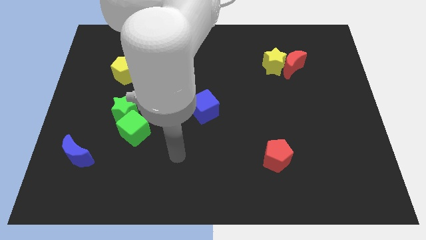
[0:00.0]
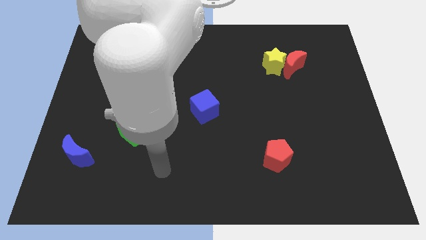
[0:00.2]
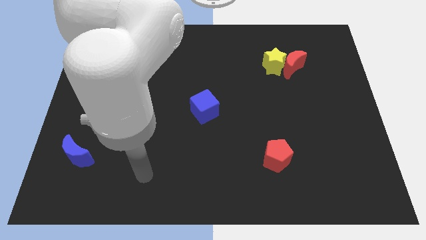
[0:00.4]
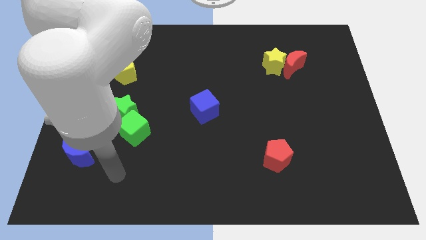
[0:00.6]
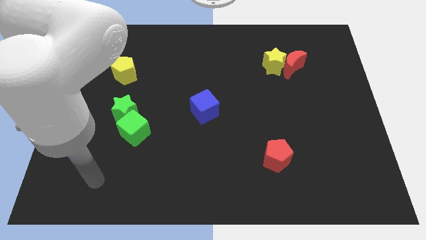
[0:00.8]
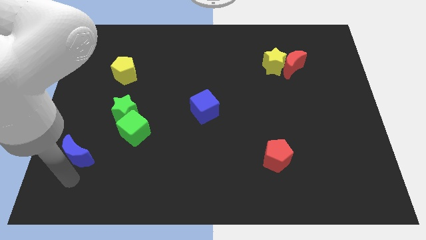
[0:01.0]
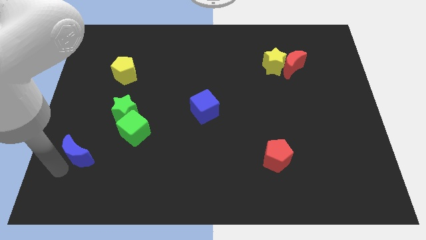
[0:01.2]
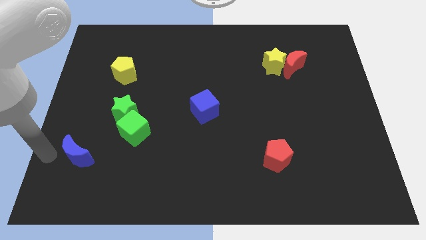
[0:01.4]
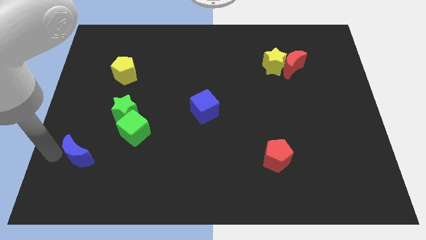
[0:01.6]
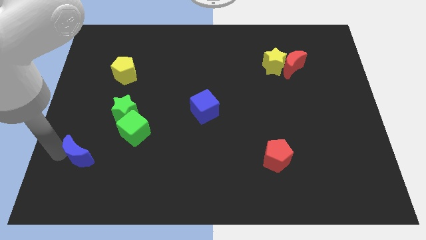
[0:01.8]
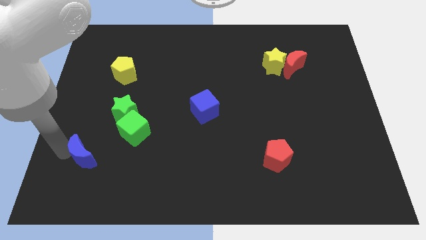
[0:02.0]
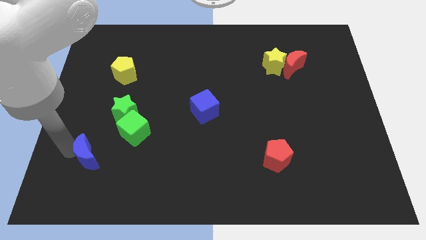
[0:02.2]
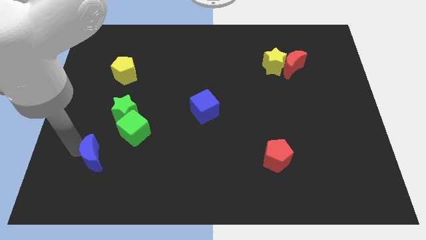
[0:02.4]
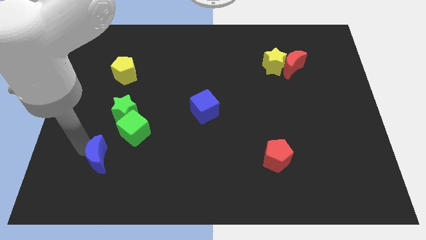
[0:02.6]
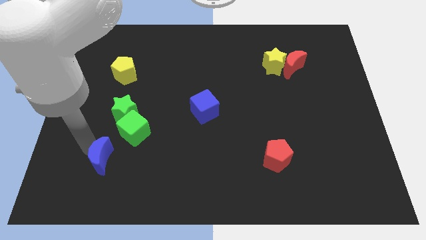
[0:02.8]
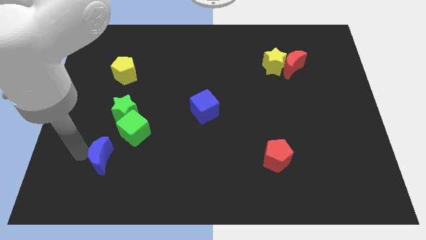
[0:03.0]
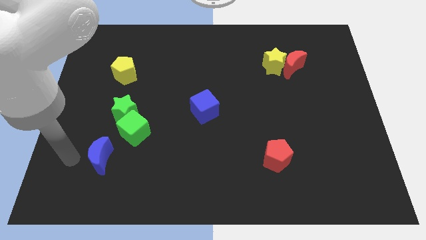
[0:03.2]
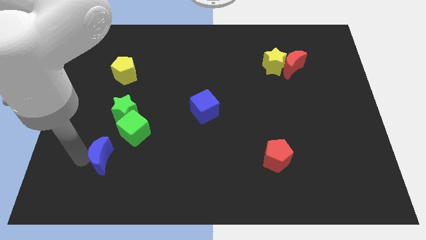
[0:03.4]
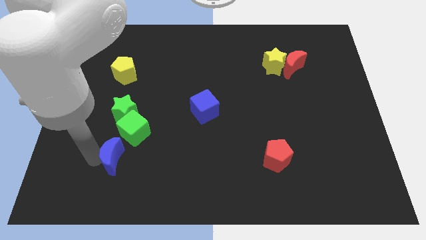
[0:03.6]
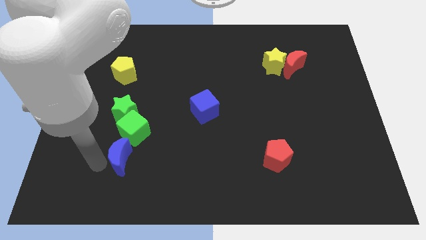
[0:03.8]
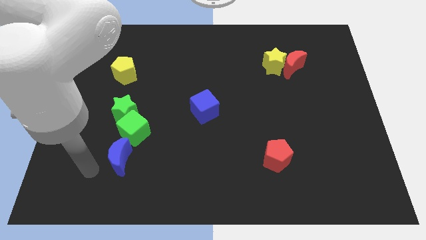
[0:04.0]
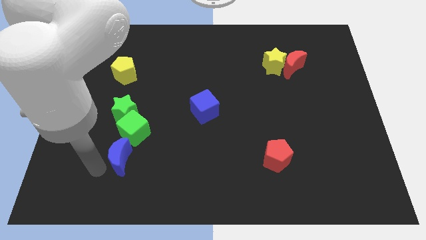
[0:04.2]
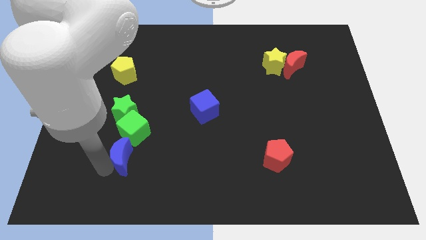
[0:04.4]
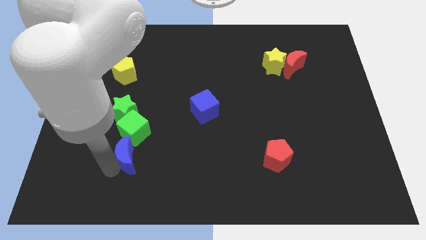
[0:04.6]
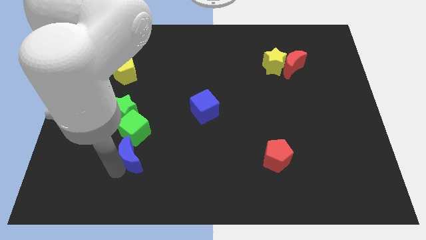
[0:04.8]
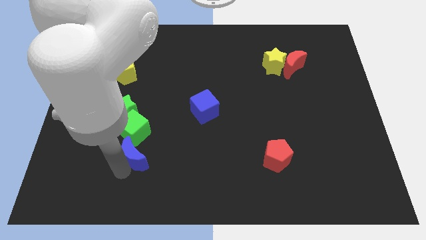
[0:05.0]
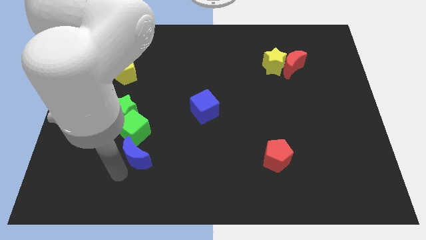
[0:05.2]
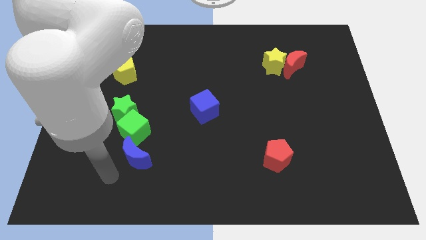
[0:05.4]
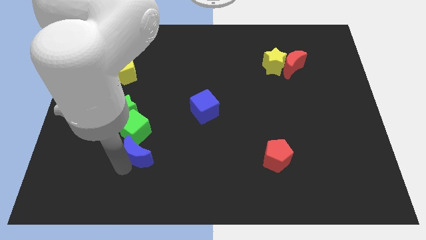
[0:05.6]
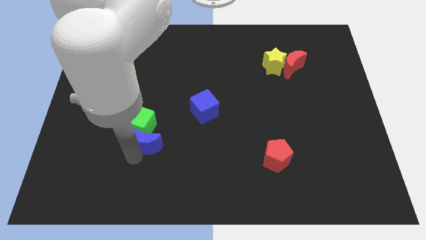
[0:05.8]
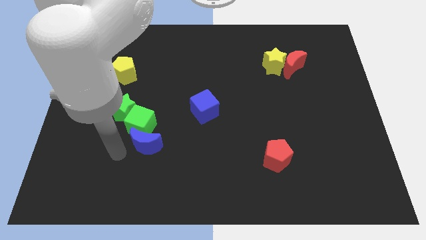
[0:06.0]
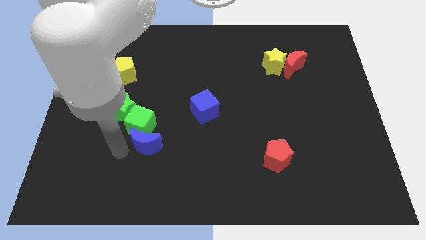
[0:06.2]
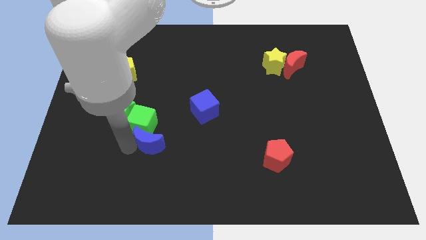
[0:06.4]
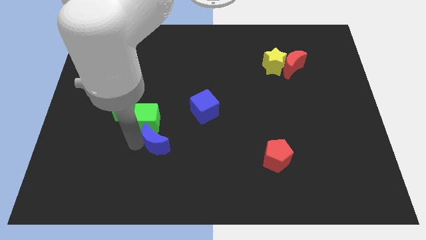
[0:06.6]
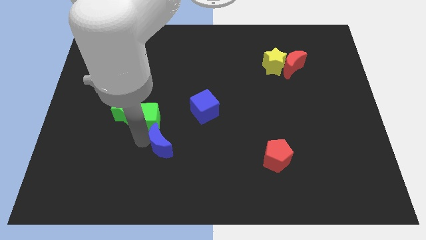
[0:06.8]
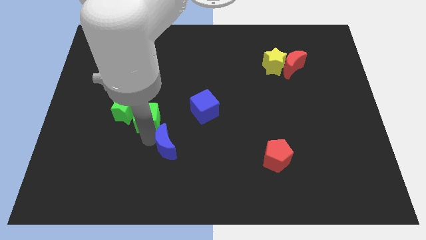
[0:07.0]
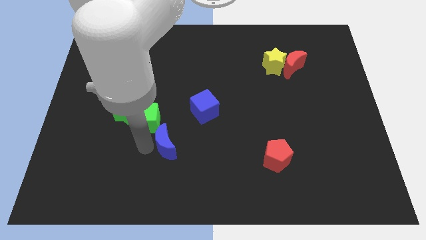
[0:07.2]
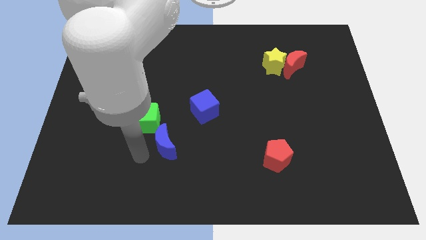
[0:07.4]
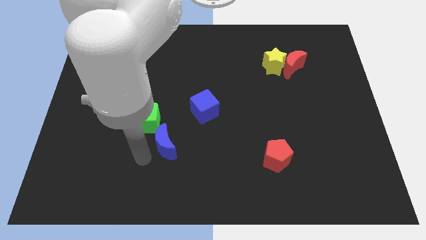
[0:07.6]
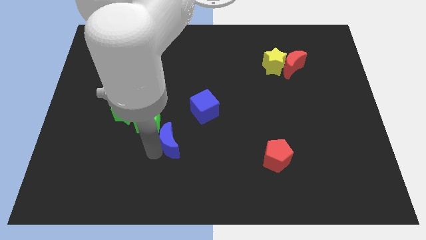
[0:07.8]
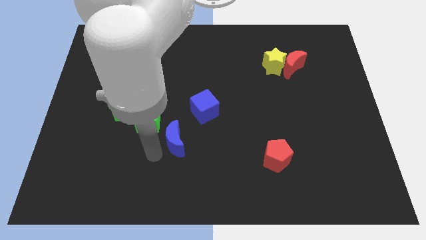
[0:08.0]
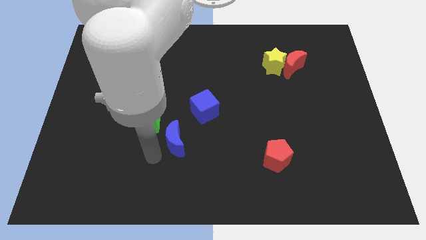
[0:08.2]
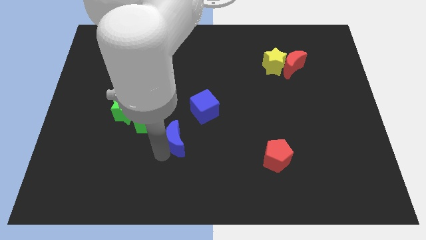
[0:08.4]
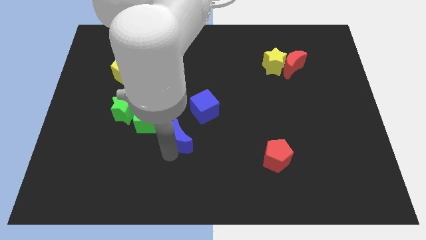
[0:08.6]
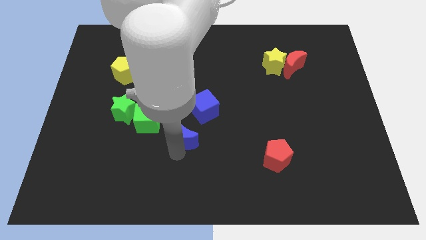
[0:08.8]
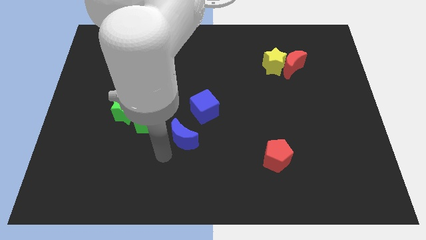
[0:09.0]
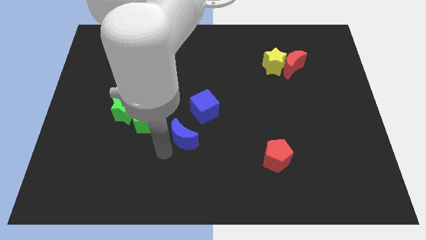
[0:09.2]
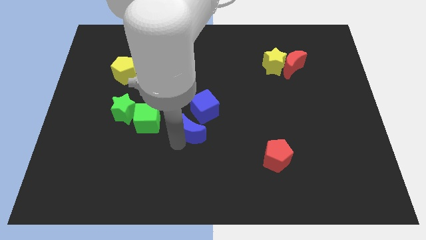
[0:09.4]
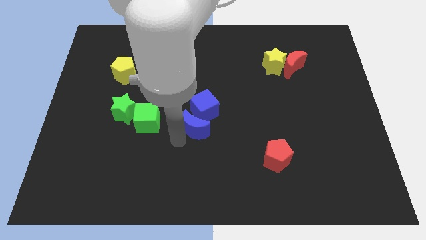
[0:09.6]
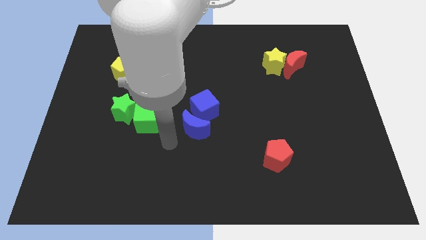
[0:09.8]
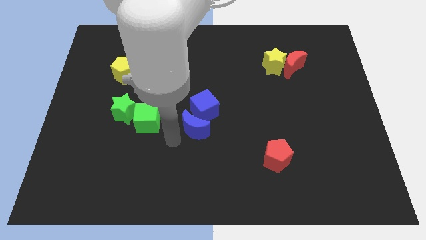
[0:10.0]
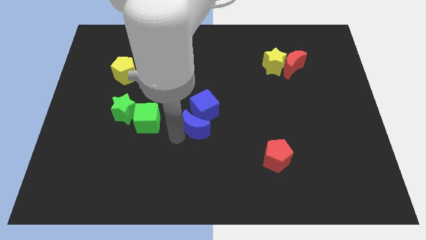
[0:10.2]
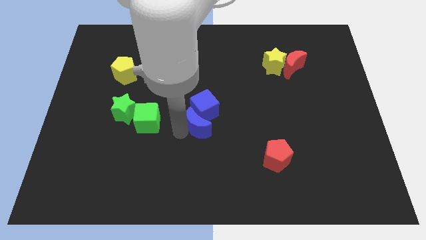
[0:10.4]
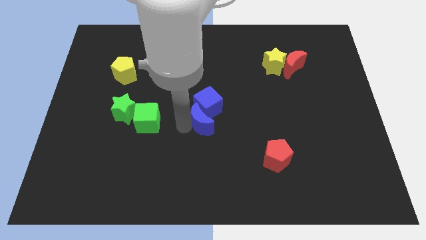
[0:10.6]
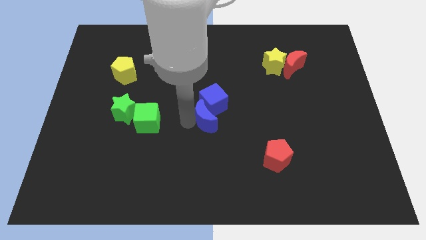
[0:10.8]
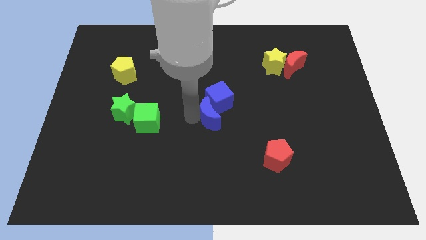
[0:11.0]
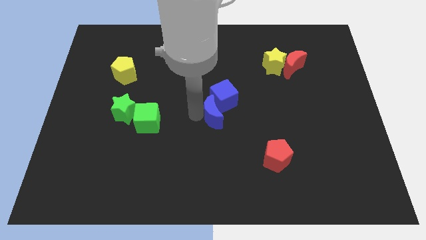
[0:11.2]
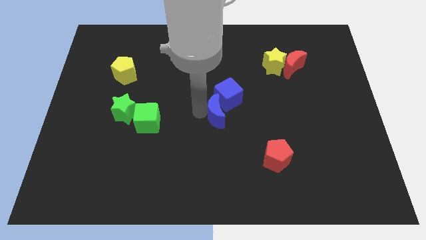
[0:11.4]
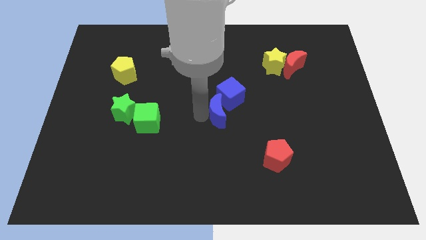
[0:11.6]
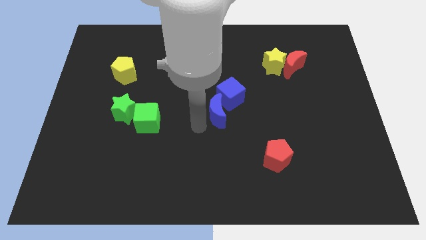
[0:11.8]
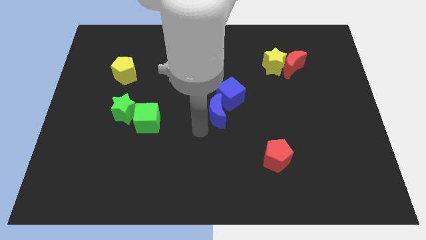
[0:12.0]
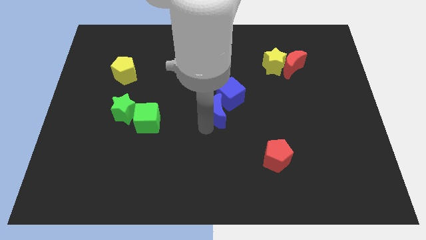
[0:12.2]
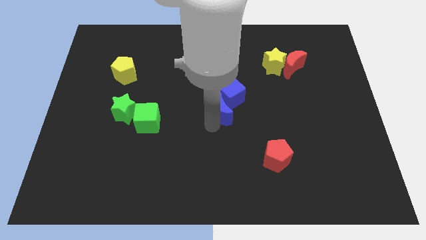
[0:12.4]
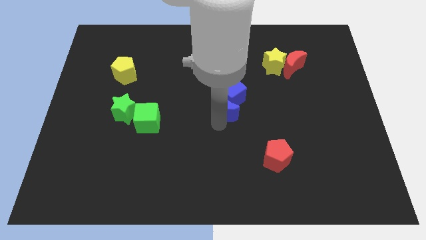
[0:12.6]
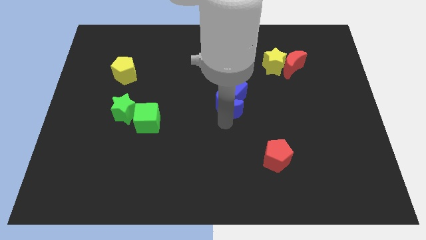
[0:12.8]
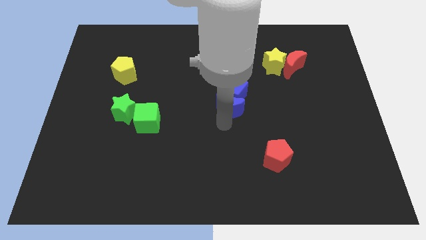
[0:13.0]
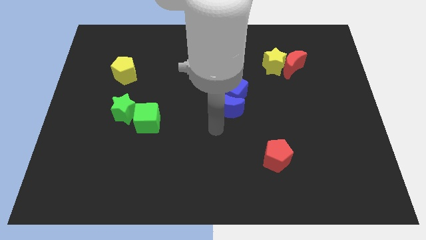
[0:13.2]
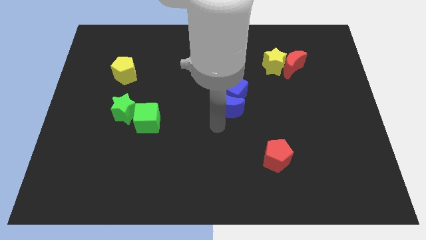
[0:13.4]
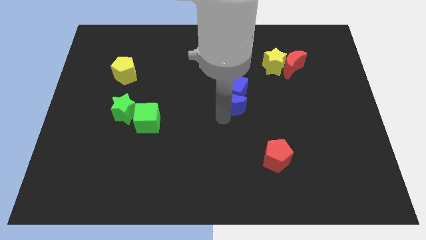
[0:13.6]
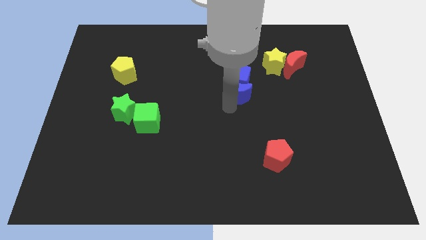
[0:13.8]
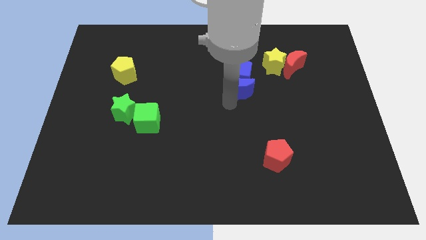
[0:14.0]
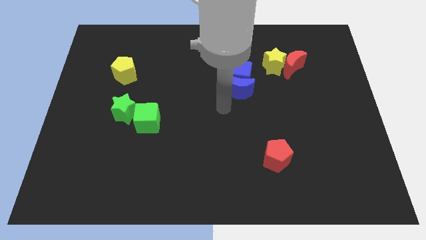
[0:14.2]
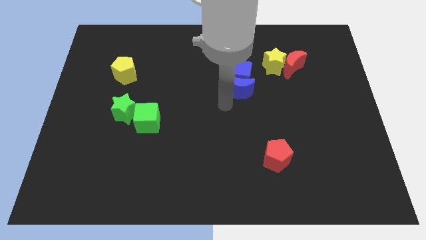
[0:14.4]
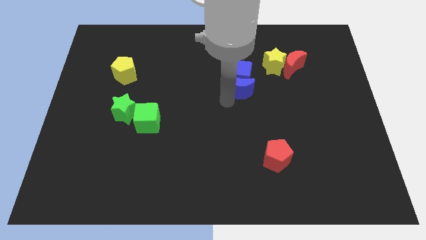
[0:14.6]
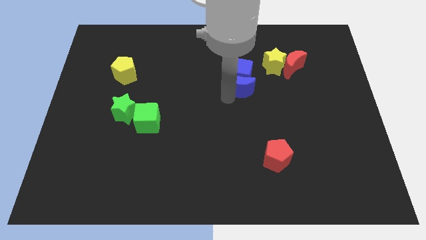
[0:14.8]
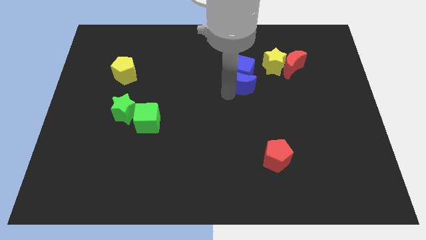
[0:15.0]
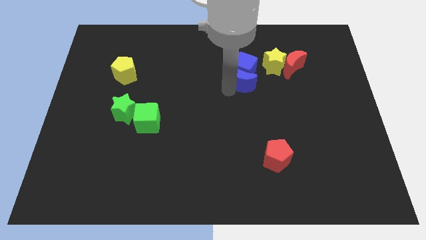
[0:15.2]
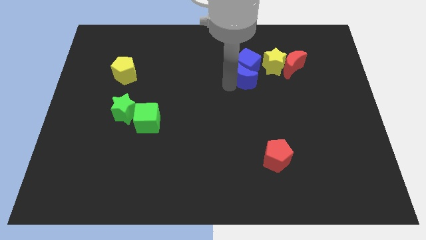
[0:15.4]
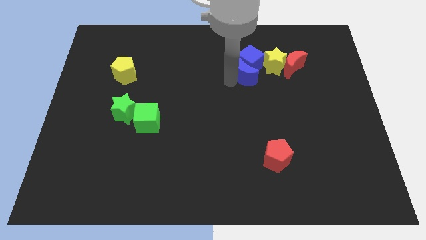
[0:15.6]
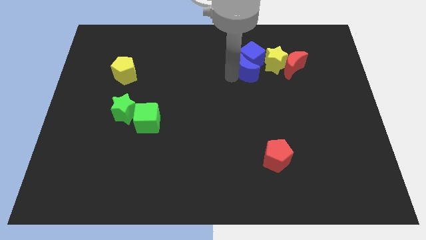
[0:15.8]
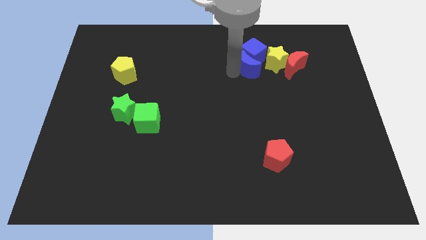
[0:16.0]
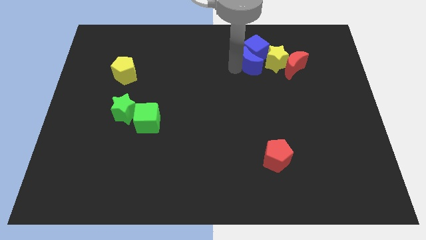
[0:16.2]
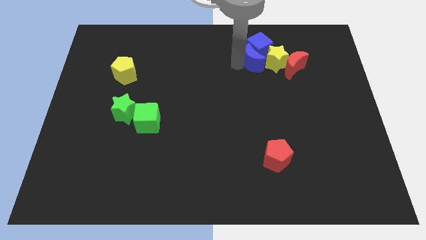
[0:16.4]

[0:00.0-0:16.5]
put the blue moon next to the yellow star
